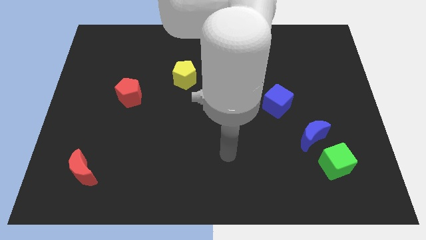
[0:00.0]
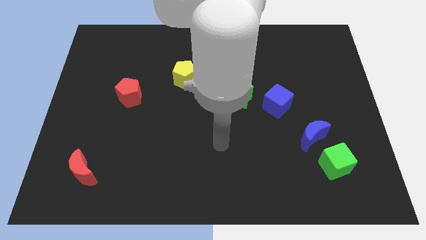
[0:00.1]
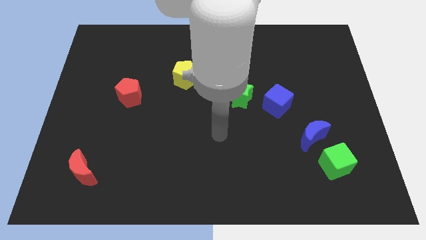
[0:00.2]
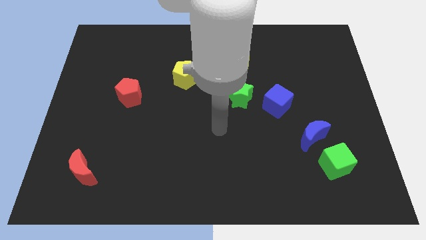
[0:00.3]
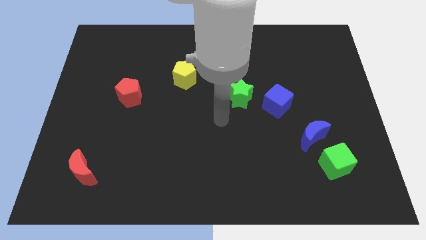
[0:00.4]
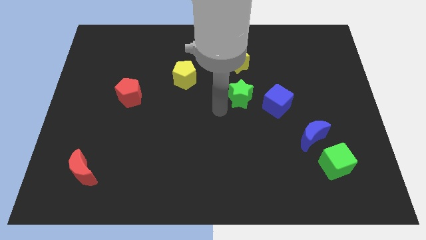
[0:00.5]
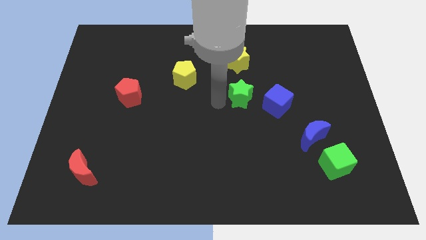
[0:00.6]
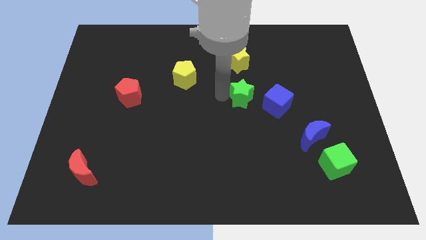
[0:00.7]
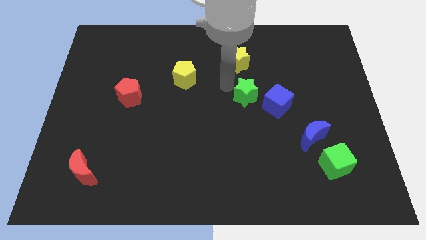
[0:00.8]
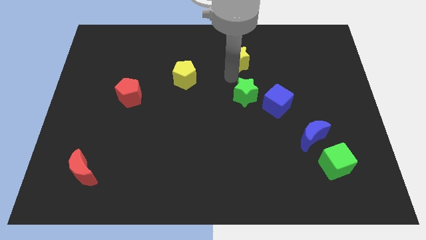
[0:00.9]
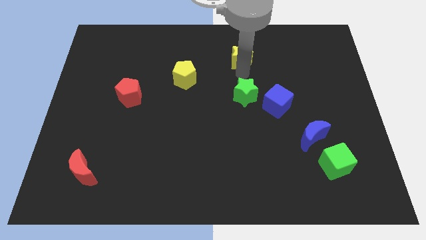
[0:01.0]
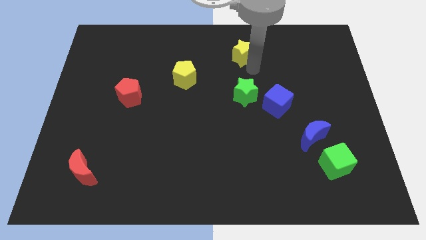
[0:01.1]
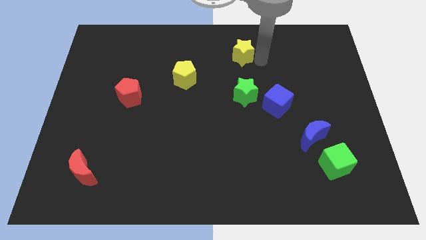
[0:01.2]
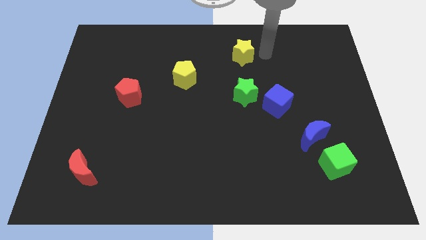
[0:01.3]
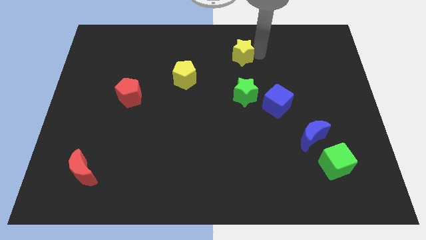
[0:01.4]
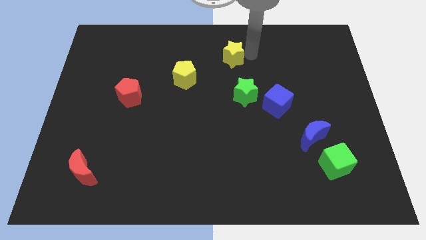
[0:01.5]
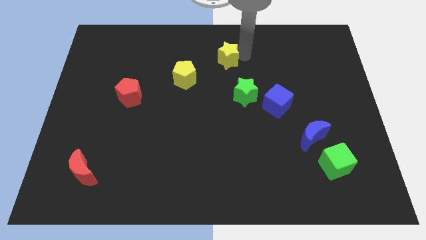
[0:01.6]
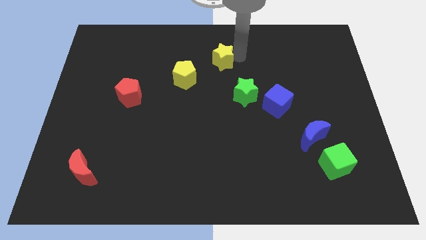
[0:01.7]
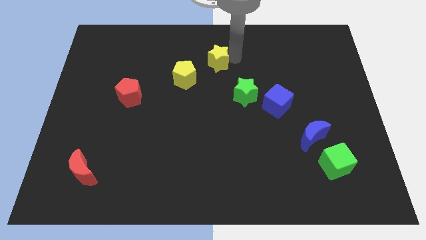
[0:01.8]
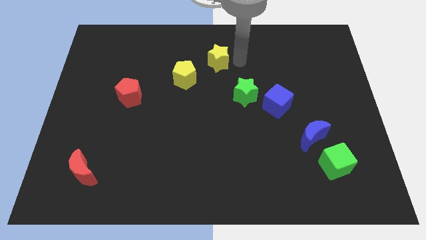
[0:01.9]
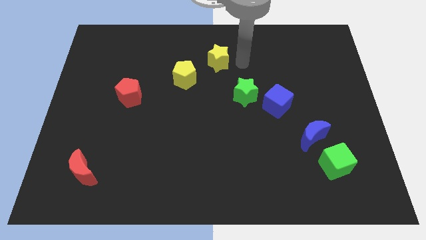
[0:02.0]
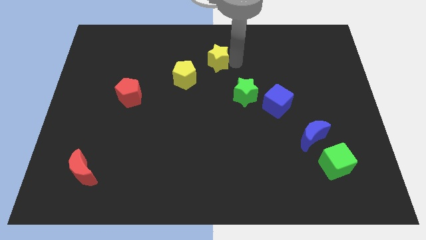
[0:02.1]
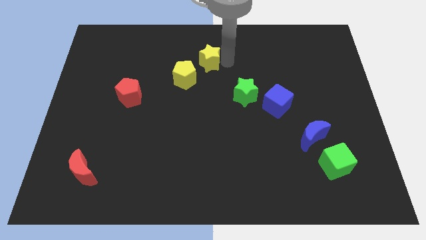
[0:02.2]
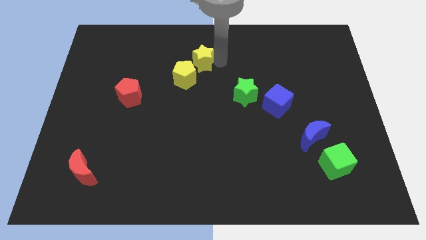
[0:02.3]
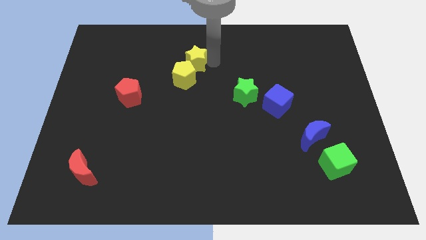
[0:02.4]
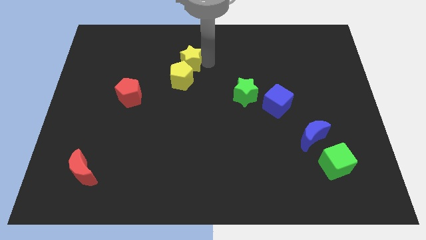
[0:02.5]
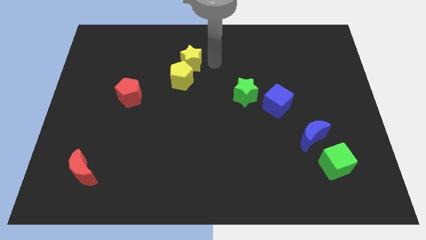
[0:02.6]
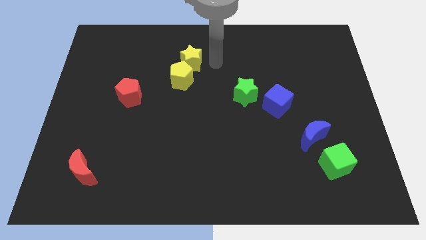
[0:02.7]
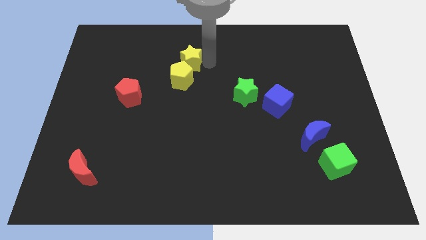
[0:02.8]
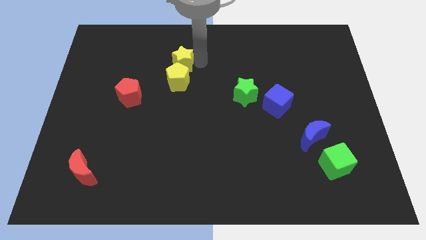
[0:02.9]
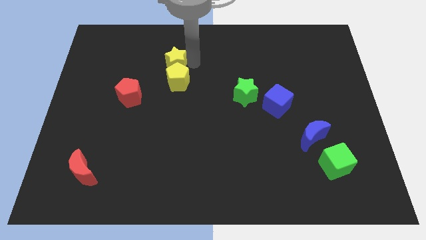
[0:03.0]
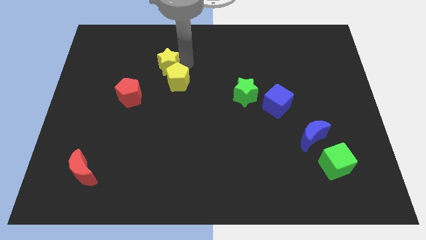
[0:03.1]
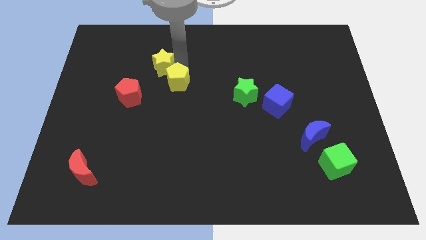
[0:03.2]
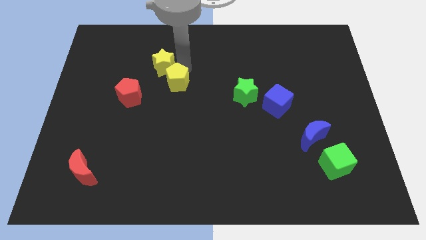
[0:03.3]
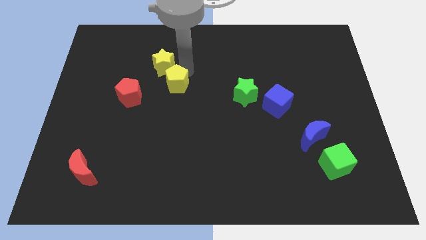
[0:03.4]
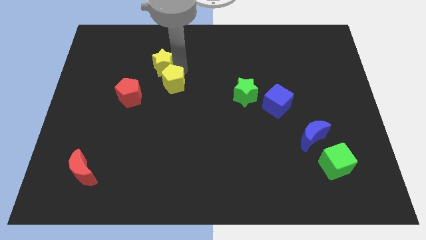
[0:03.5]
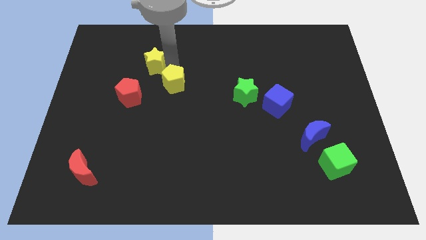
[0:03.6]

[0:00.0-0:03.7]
push the yellow star left

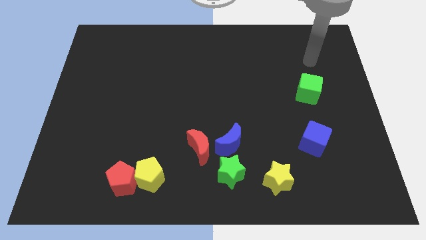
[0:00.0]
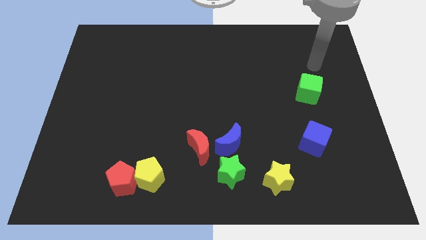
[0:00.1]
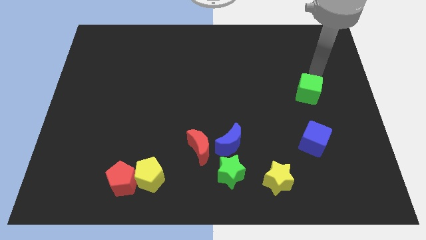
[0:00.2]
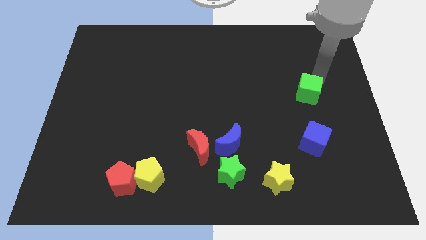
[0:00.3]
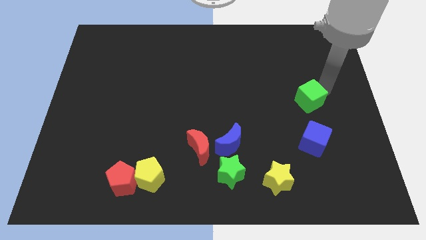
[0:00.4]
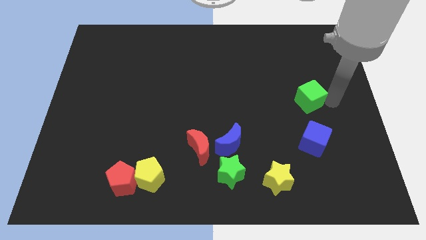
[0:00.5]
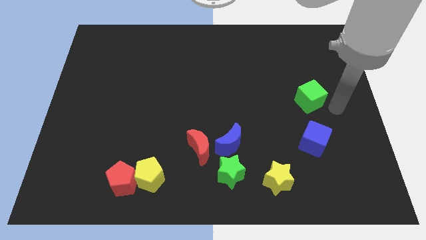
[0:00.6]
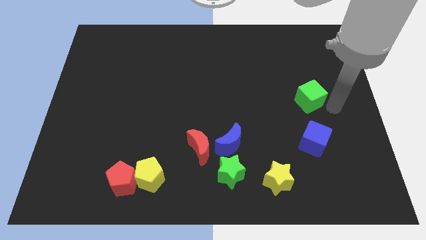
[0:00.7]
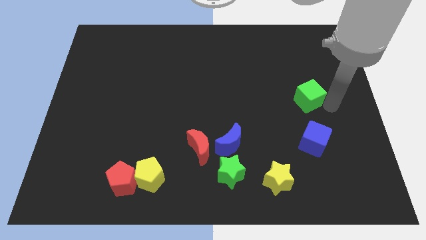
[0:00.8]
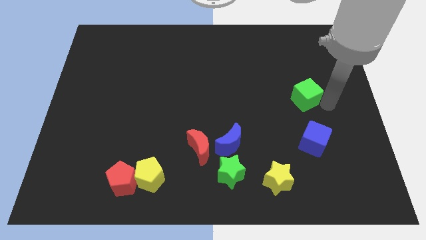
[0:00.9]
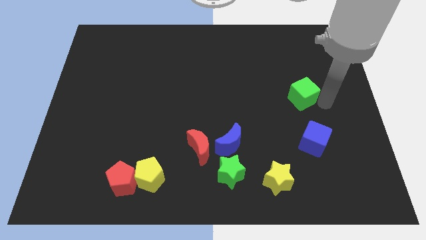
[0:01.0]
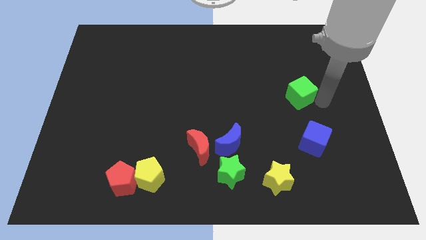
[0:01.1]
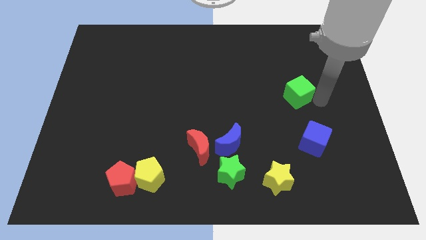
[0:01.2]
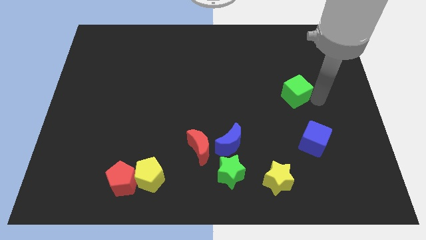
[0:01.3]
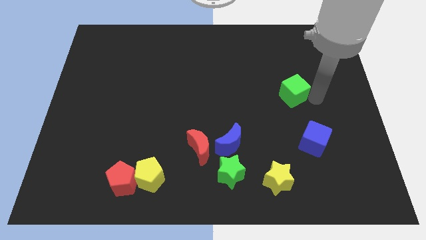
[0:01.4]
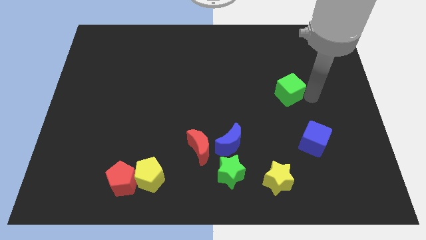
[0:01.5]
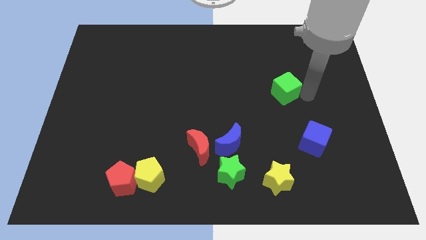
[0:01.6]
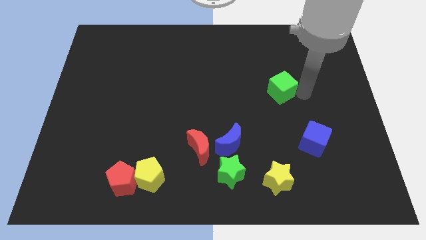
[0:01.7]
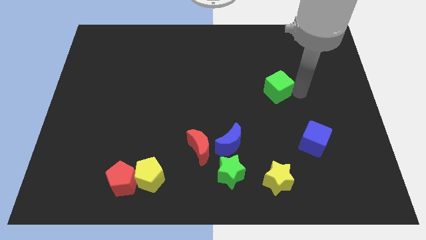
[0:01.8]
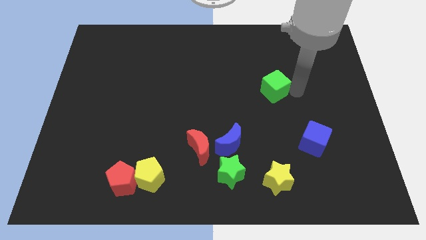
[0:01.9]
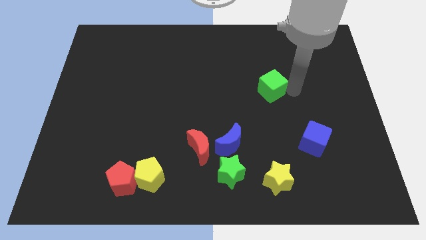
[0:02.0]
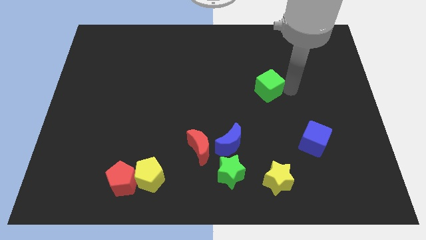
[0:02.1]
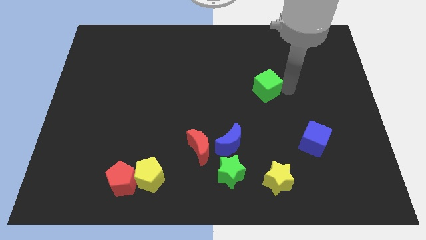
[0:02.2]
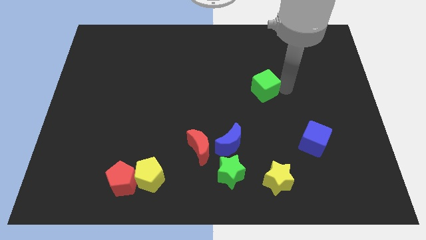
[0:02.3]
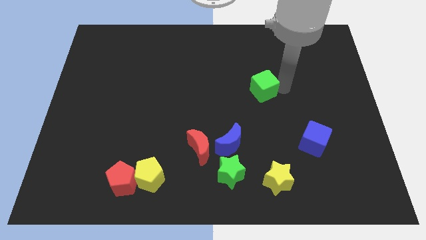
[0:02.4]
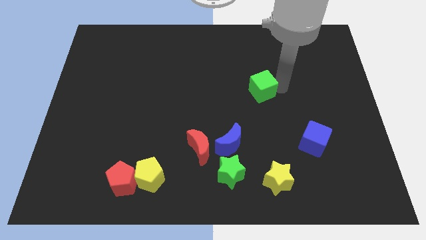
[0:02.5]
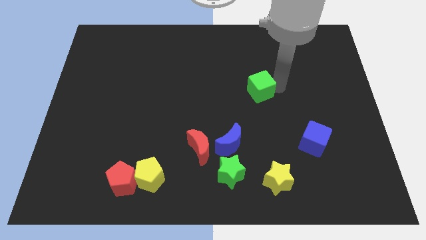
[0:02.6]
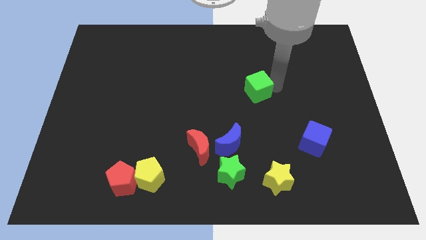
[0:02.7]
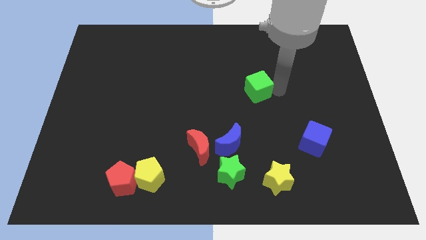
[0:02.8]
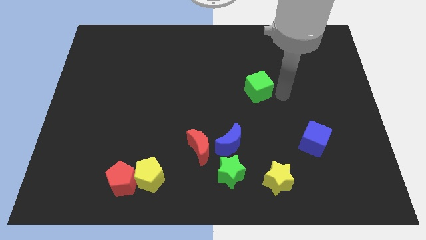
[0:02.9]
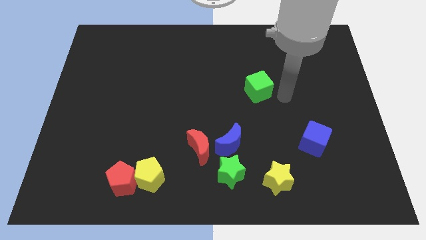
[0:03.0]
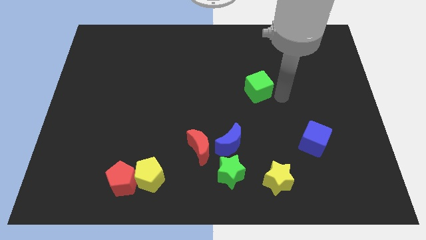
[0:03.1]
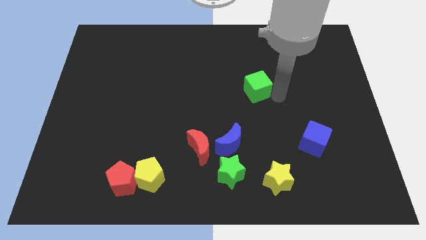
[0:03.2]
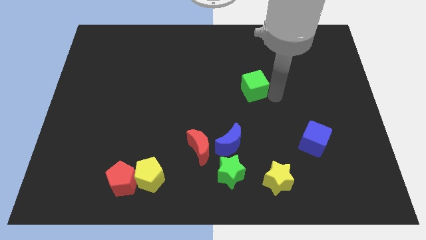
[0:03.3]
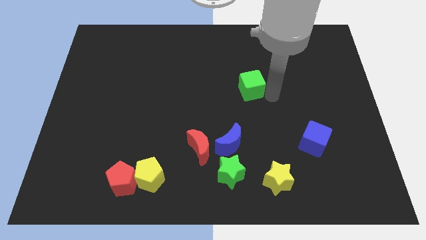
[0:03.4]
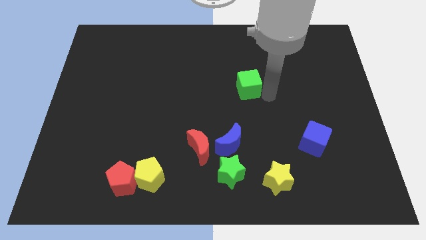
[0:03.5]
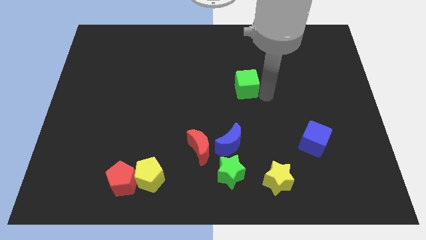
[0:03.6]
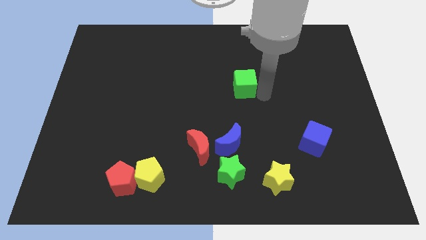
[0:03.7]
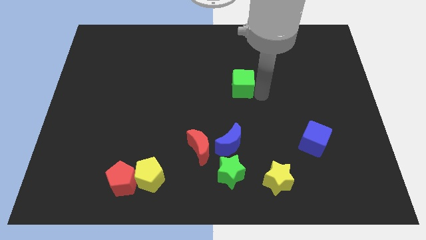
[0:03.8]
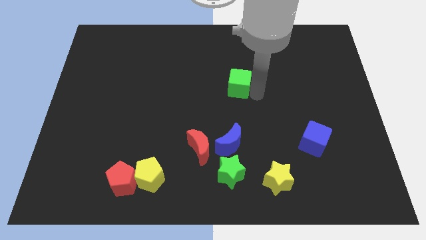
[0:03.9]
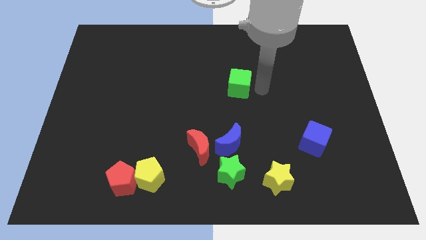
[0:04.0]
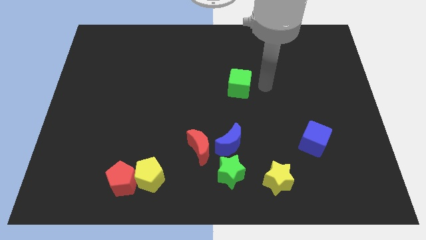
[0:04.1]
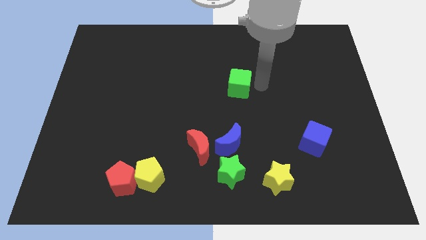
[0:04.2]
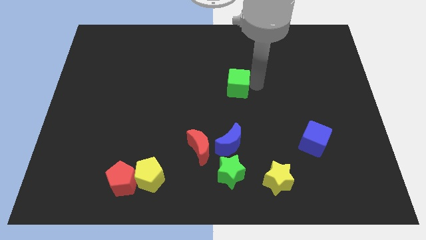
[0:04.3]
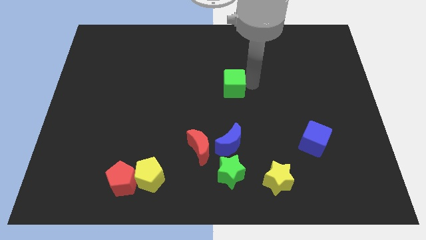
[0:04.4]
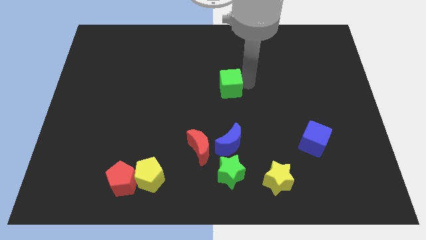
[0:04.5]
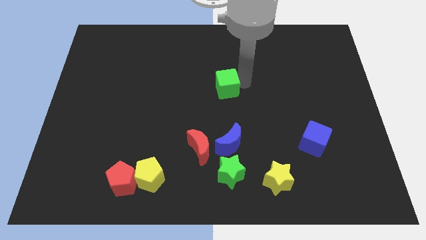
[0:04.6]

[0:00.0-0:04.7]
move the green cube left
